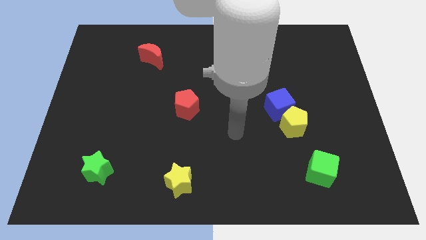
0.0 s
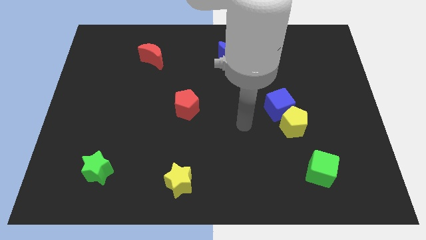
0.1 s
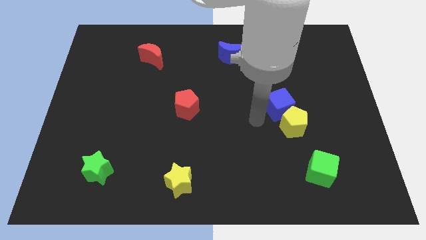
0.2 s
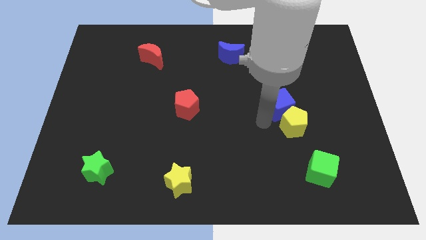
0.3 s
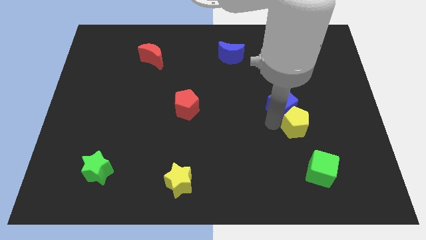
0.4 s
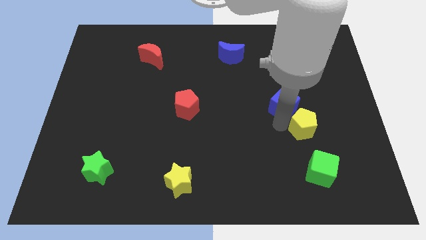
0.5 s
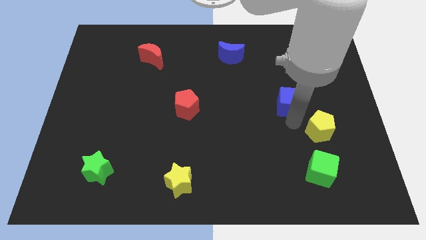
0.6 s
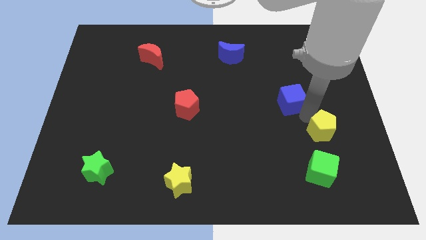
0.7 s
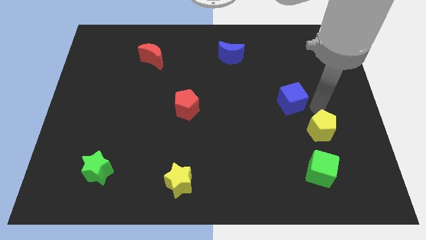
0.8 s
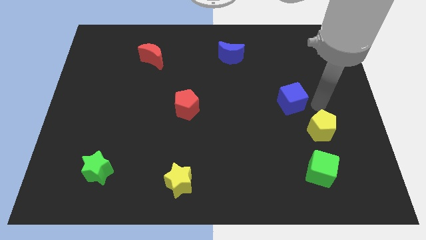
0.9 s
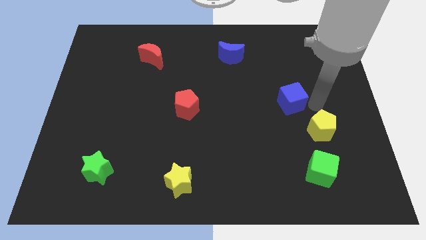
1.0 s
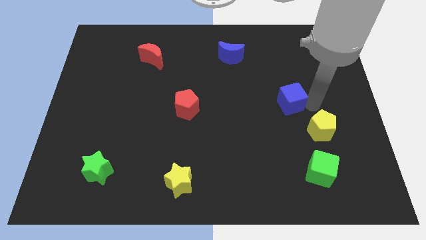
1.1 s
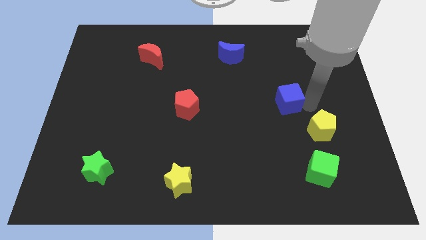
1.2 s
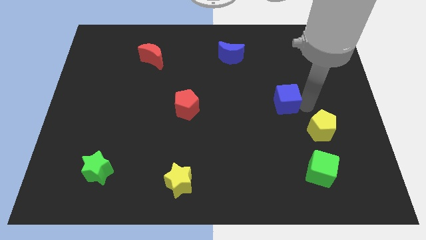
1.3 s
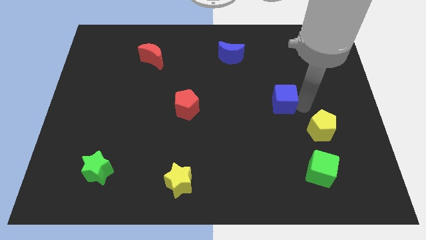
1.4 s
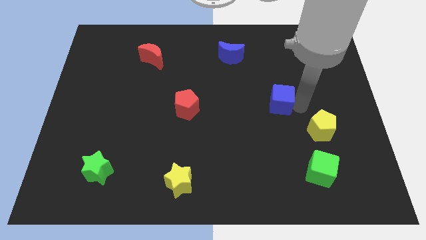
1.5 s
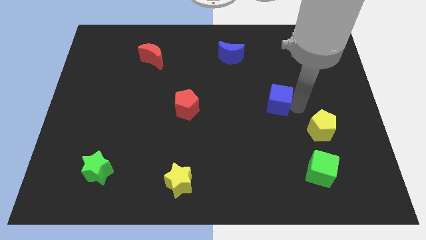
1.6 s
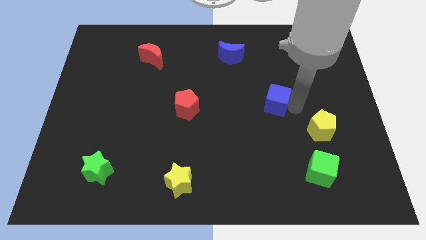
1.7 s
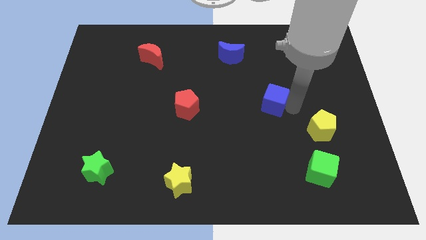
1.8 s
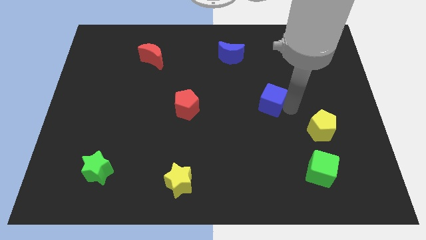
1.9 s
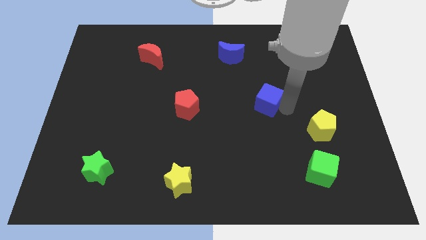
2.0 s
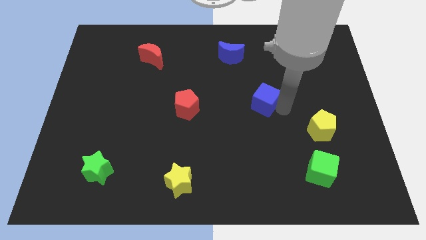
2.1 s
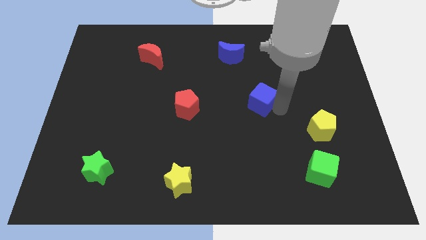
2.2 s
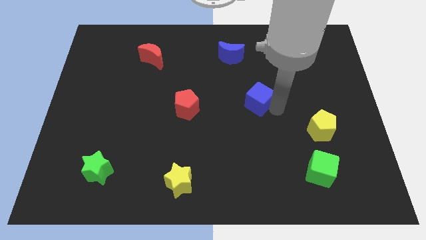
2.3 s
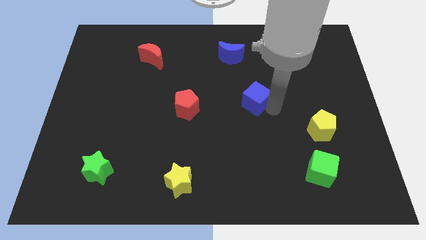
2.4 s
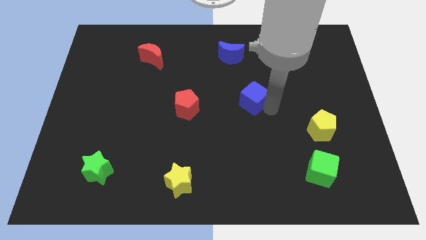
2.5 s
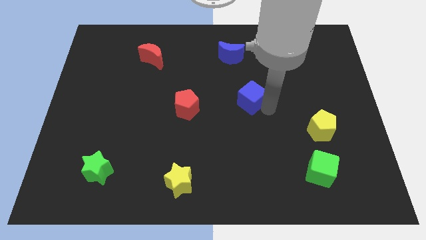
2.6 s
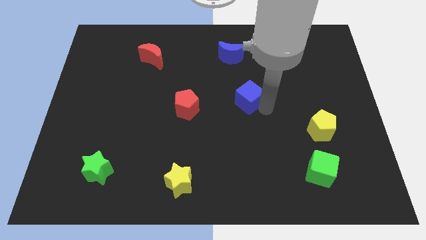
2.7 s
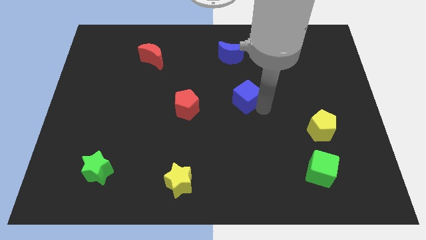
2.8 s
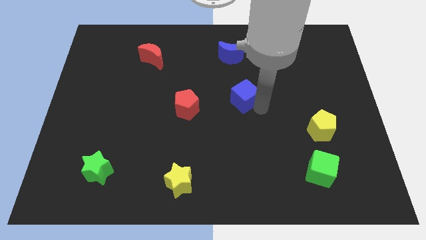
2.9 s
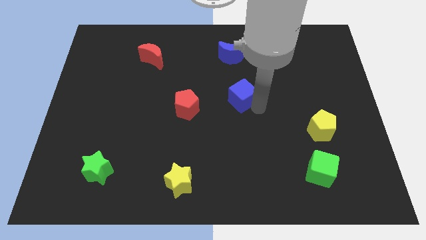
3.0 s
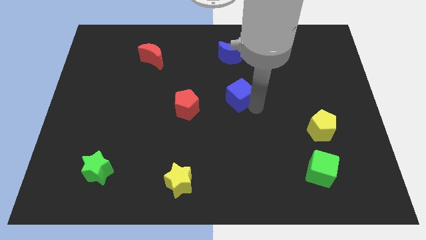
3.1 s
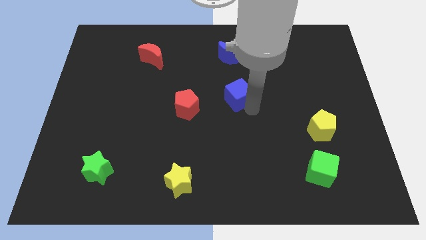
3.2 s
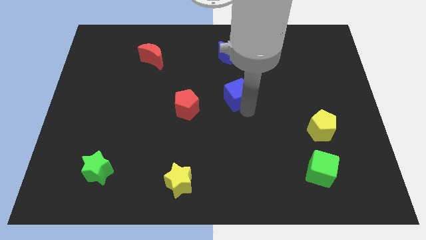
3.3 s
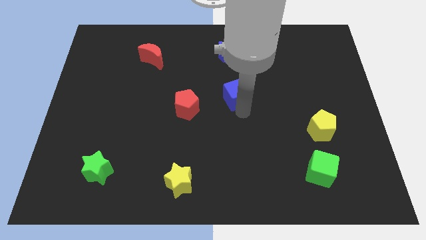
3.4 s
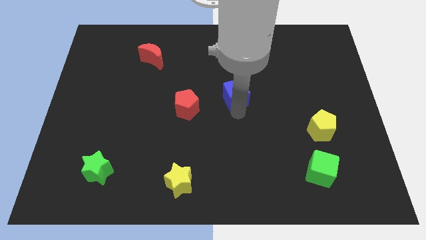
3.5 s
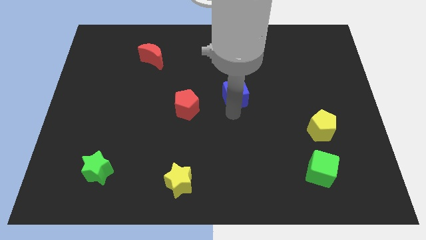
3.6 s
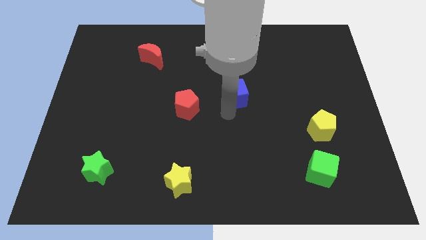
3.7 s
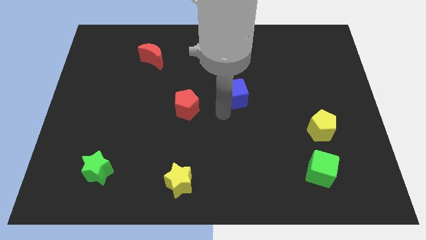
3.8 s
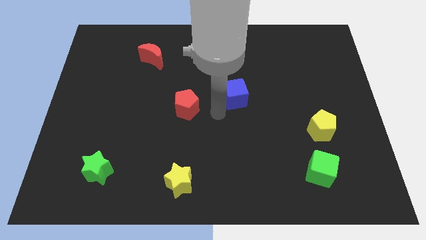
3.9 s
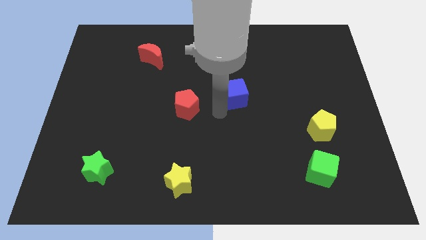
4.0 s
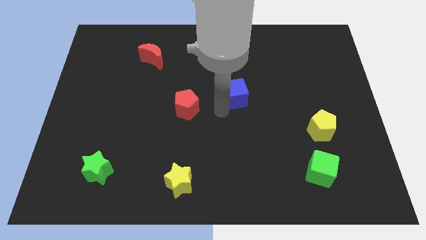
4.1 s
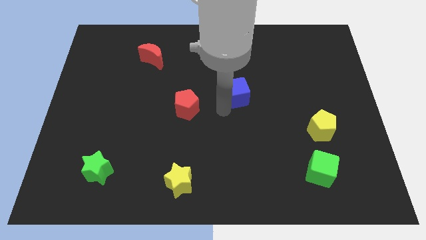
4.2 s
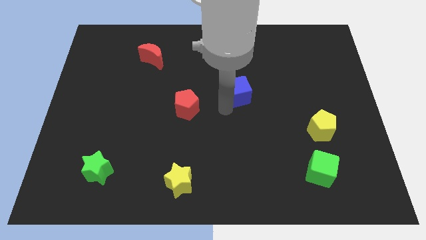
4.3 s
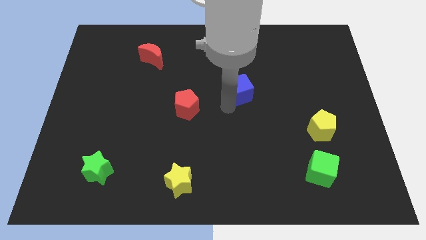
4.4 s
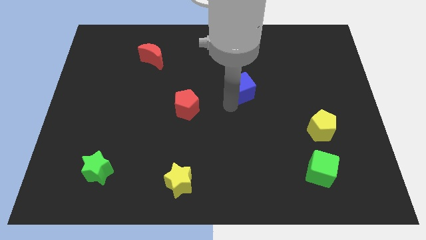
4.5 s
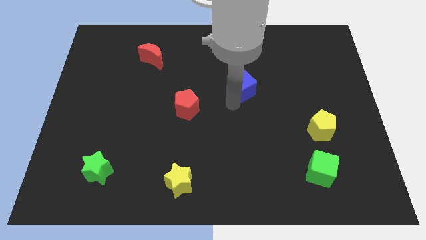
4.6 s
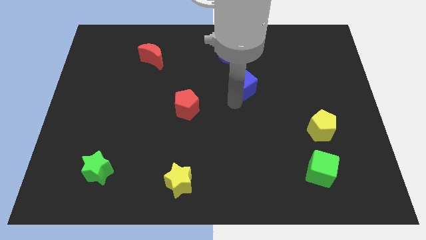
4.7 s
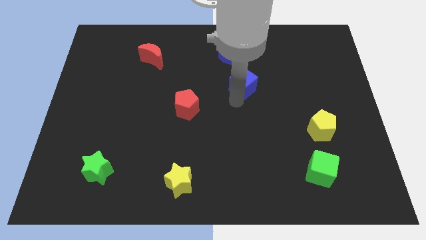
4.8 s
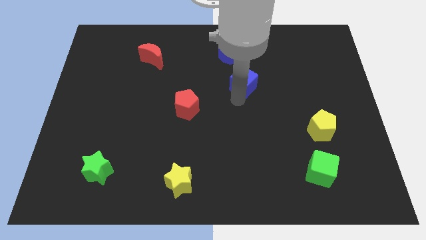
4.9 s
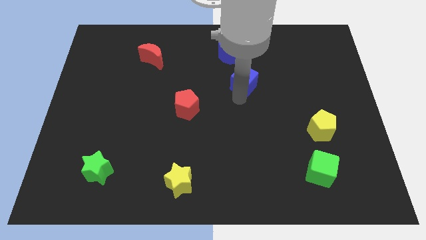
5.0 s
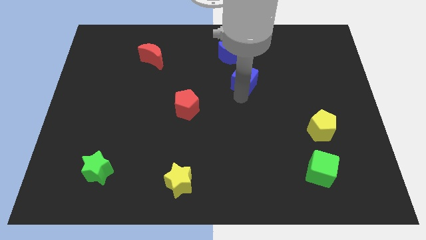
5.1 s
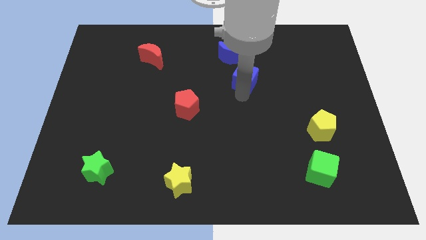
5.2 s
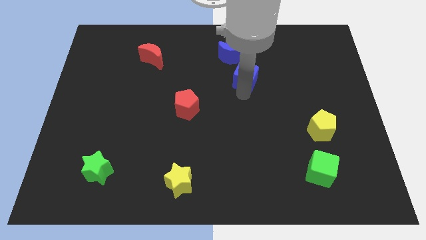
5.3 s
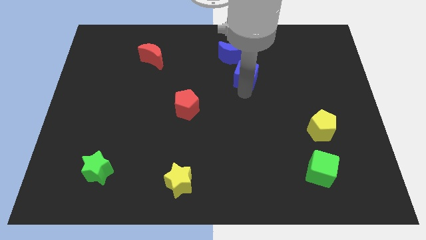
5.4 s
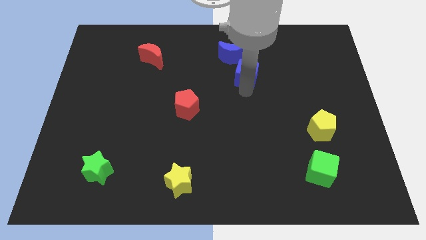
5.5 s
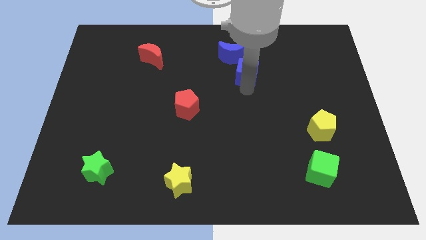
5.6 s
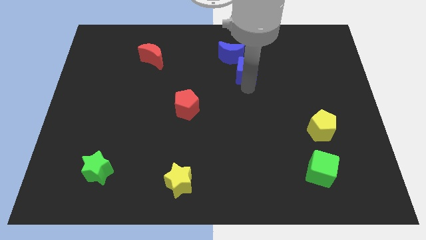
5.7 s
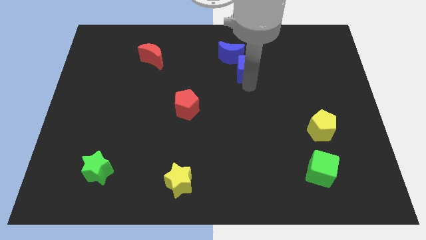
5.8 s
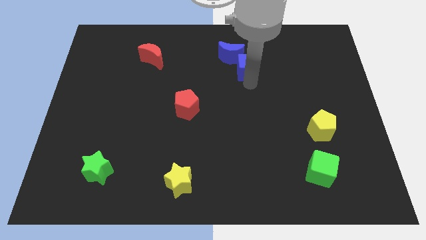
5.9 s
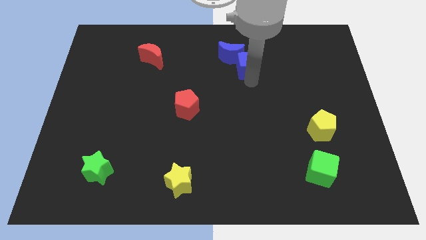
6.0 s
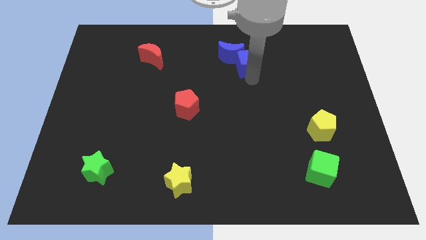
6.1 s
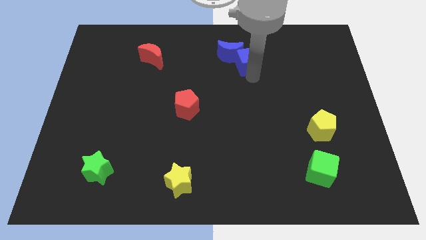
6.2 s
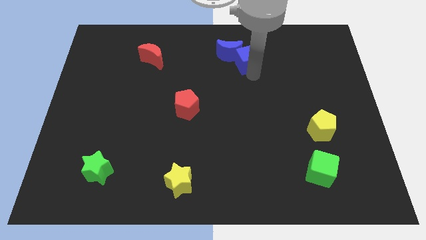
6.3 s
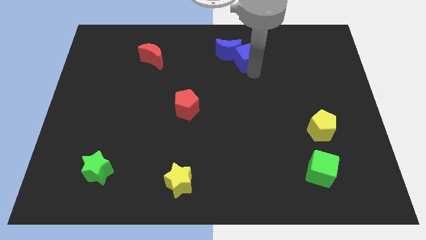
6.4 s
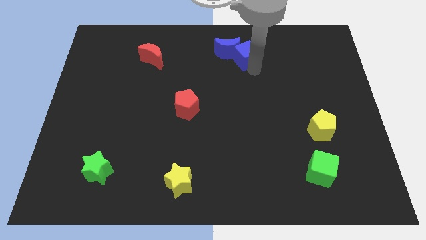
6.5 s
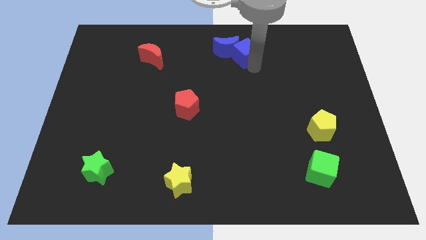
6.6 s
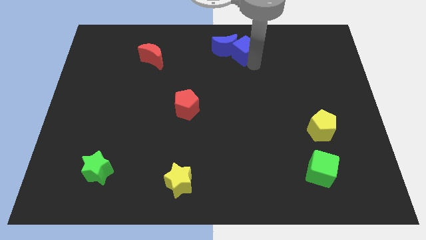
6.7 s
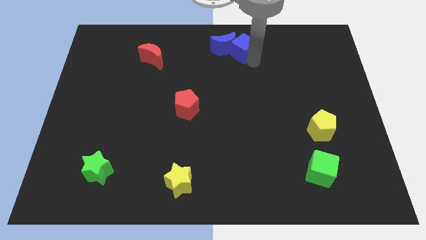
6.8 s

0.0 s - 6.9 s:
slide the blue cube to the towards your base

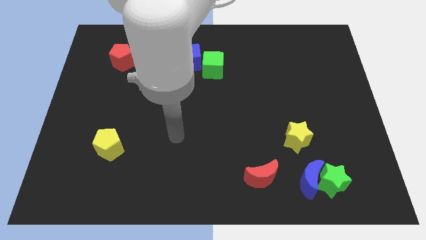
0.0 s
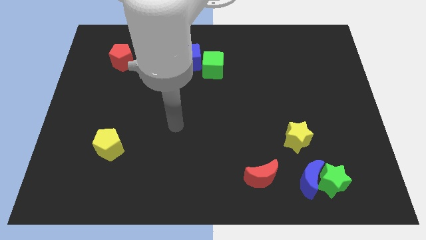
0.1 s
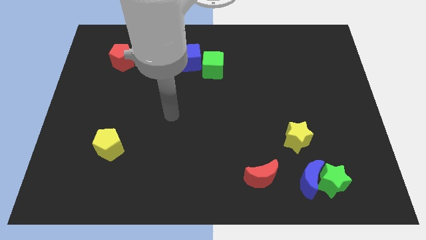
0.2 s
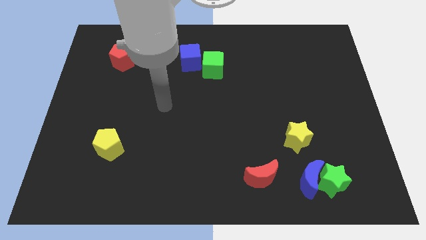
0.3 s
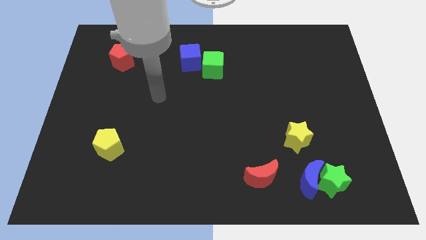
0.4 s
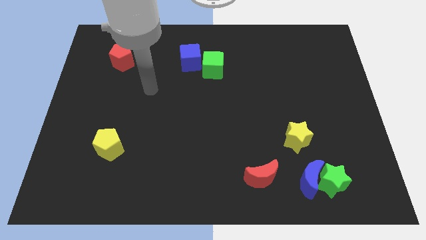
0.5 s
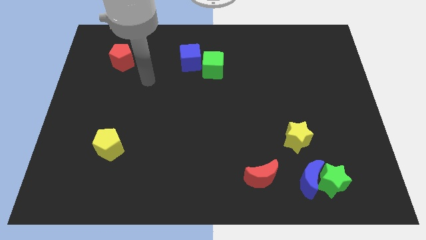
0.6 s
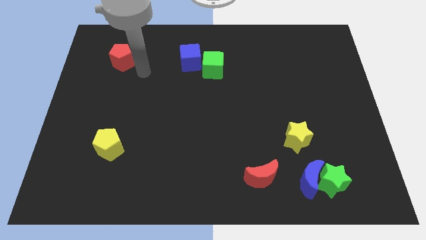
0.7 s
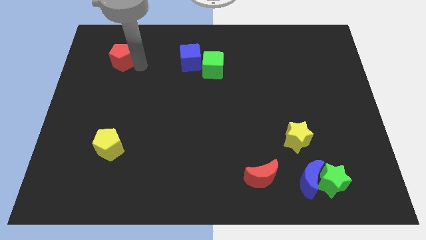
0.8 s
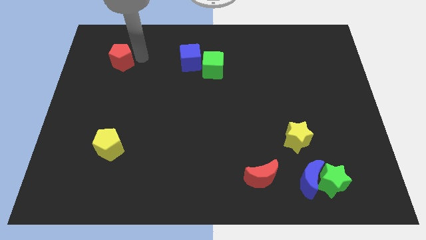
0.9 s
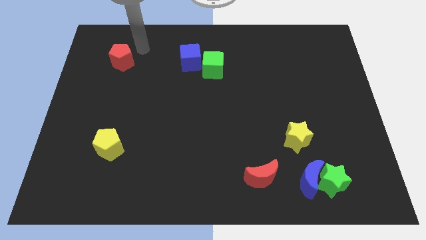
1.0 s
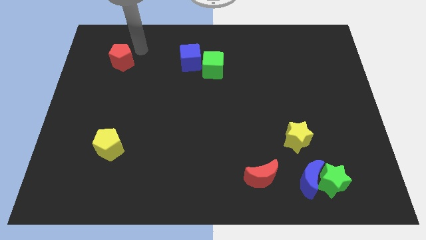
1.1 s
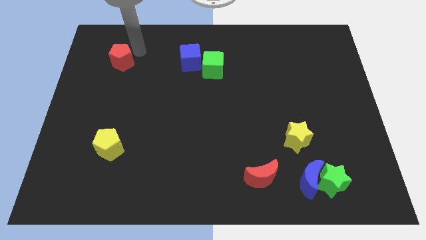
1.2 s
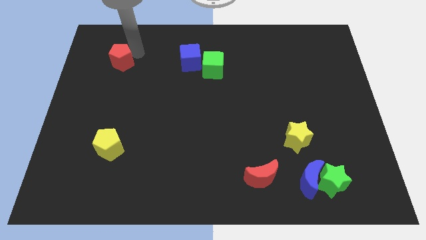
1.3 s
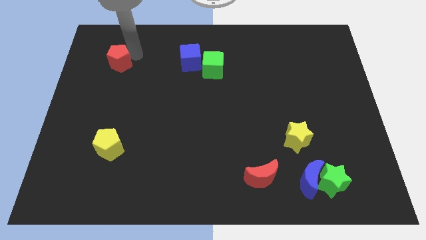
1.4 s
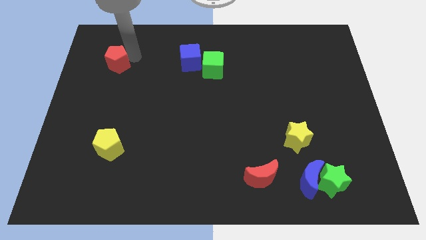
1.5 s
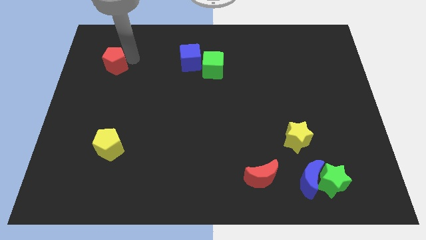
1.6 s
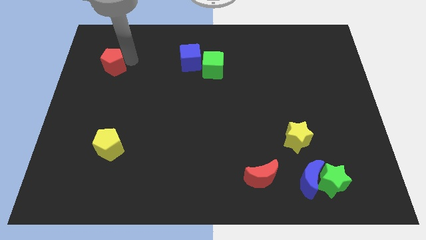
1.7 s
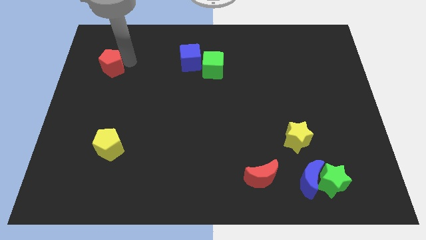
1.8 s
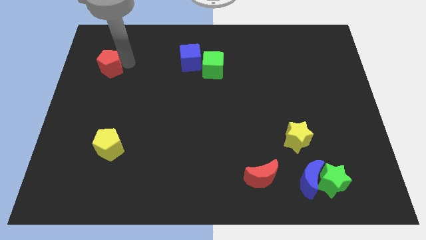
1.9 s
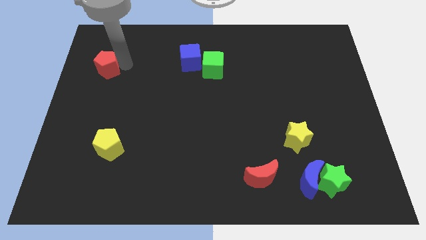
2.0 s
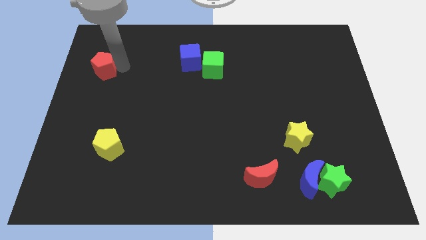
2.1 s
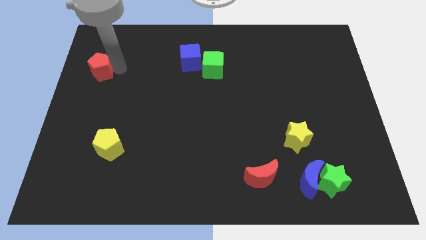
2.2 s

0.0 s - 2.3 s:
slide the red pentagon to the left side
